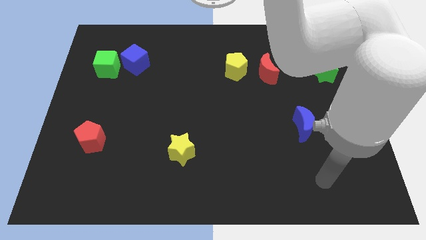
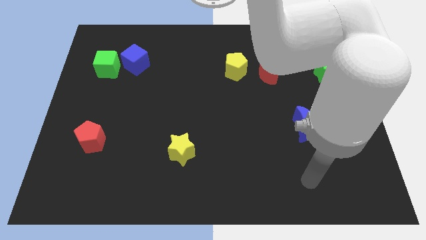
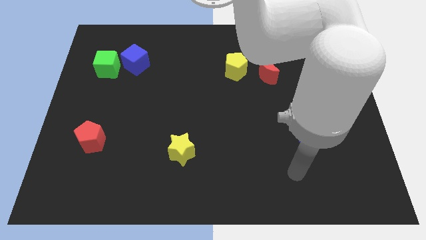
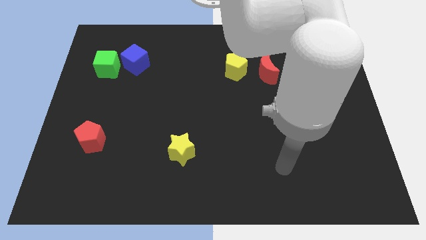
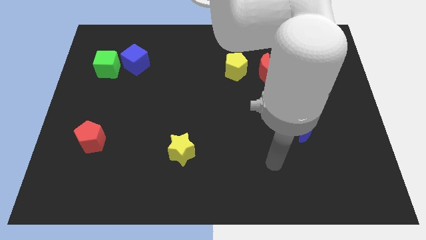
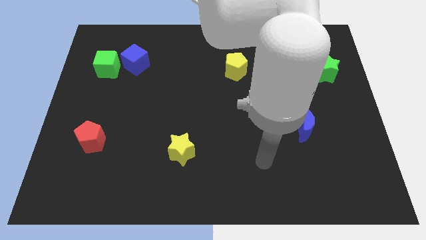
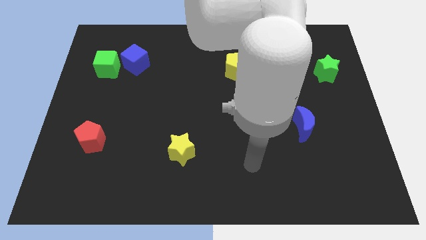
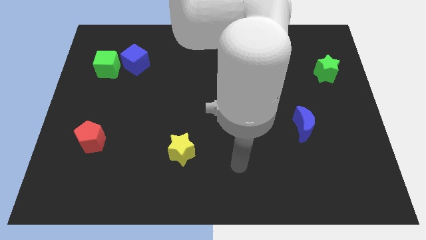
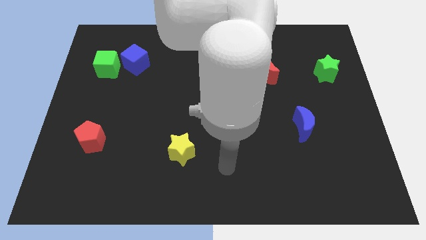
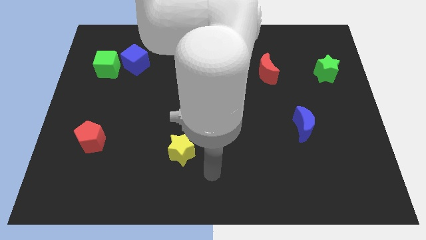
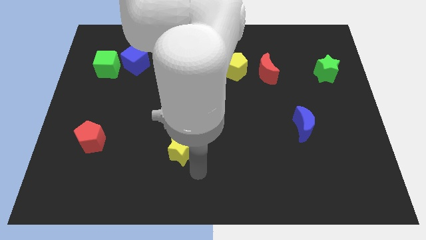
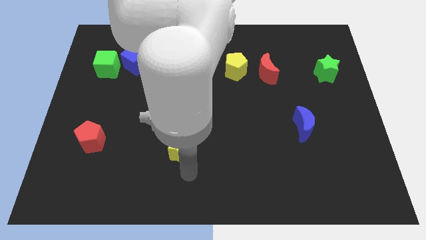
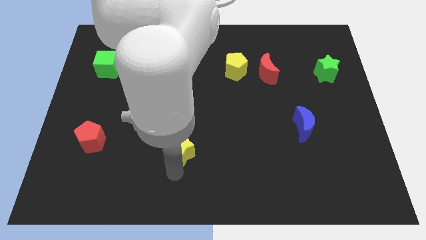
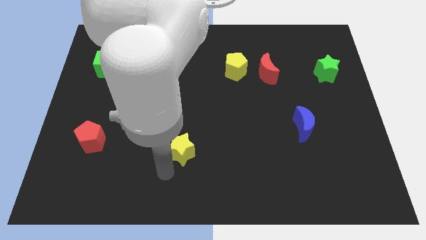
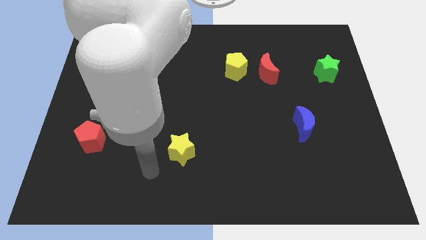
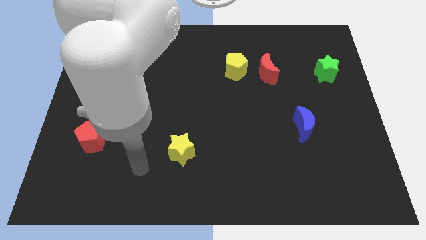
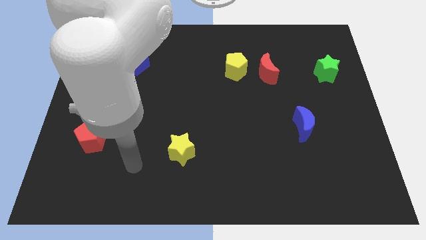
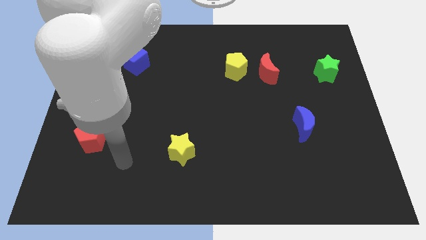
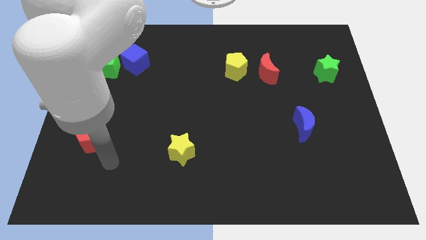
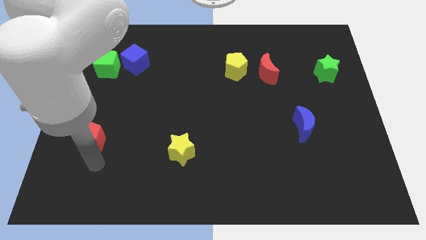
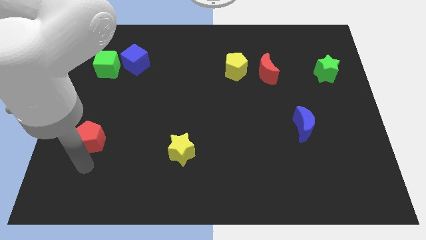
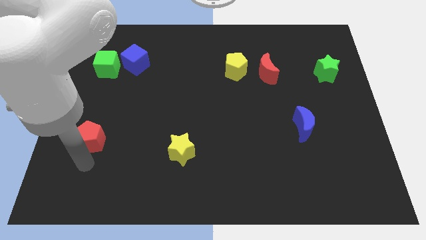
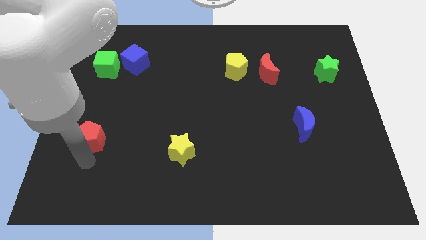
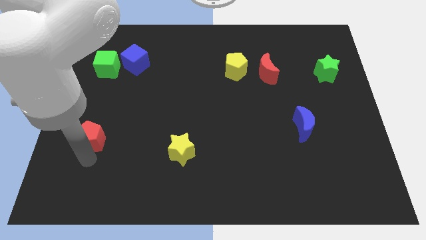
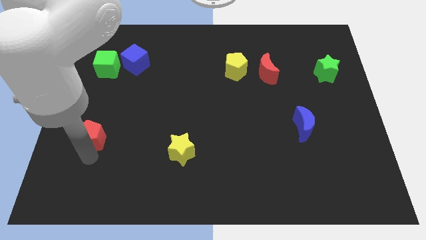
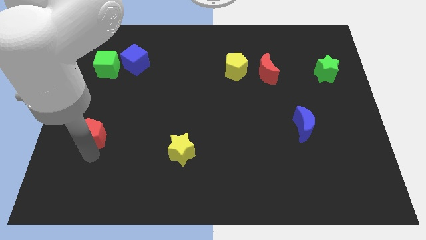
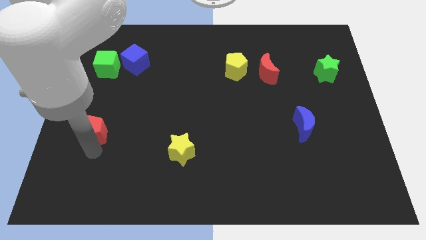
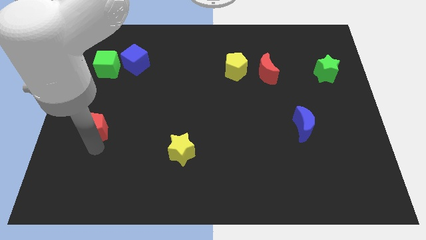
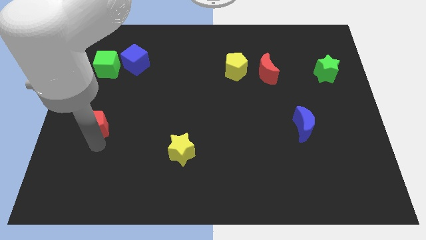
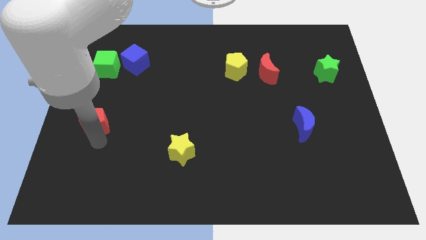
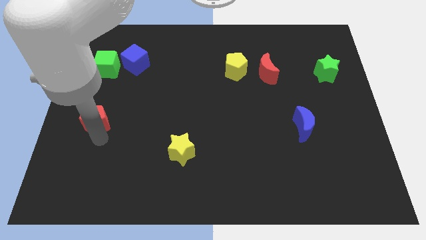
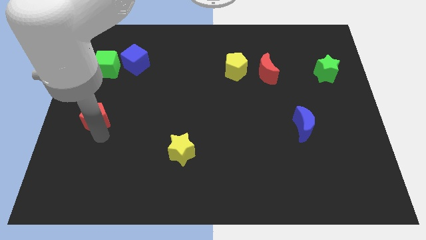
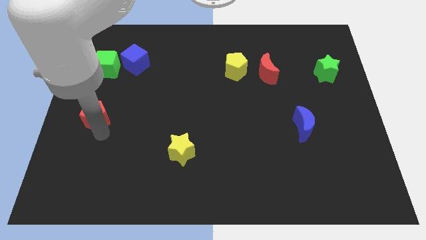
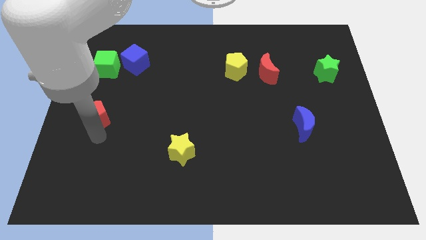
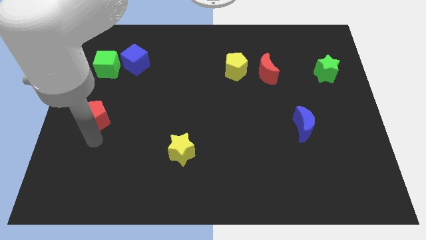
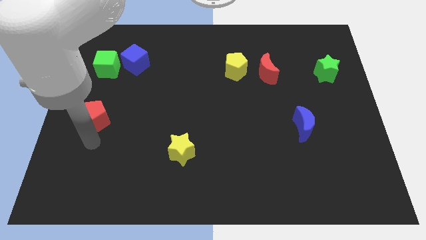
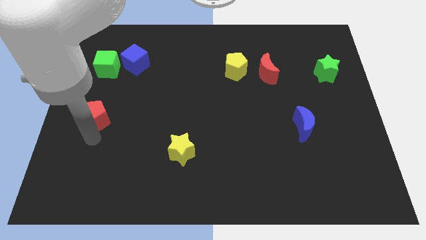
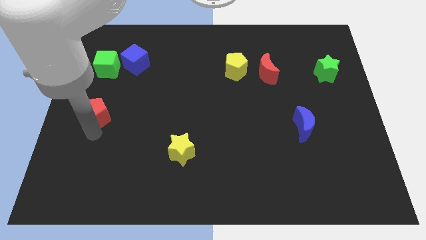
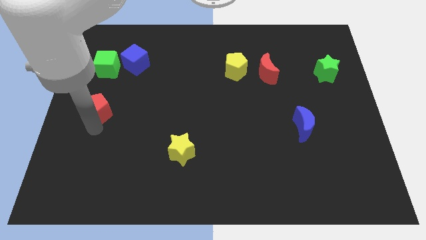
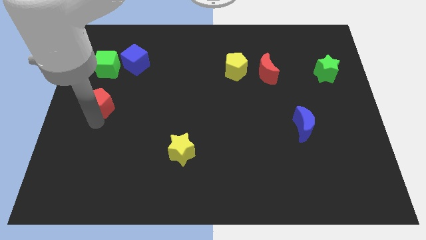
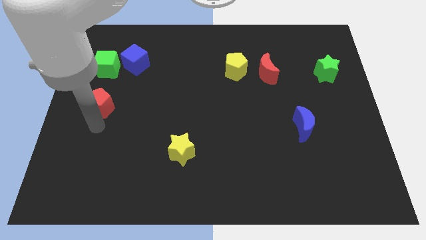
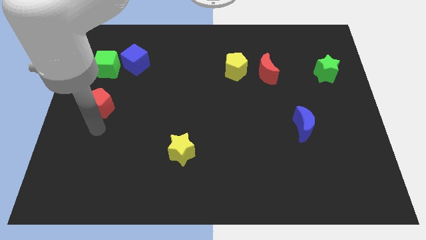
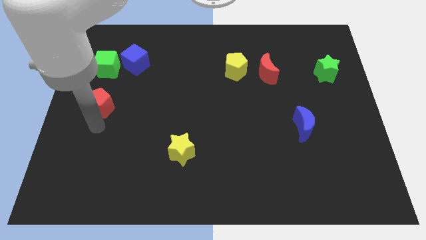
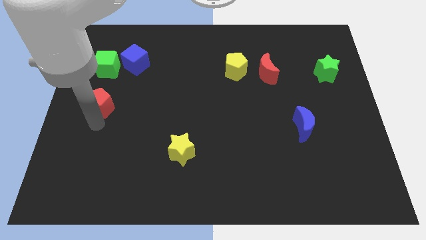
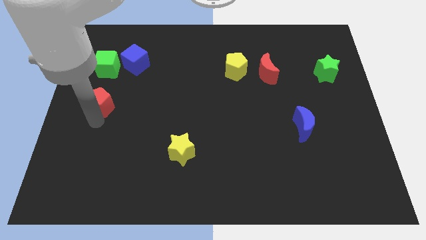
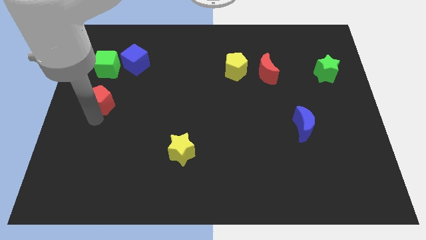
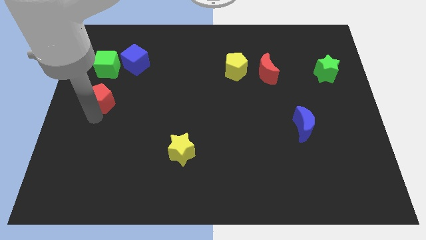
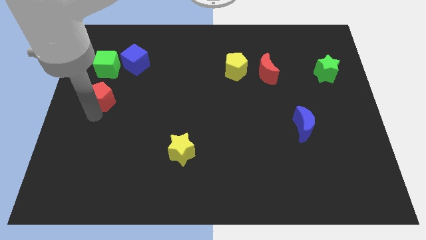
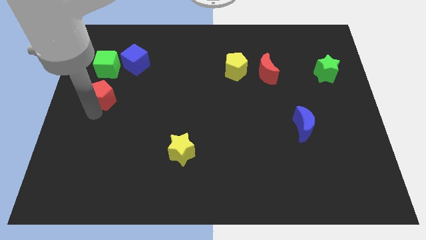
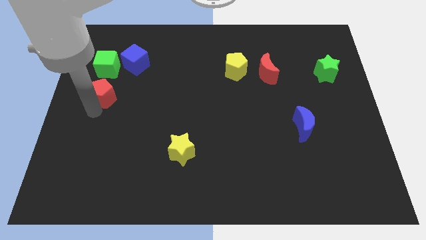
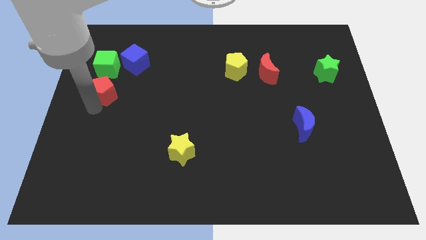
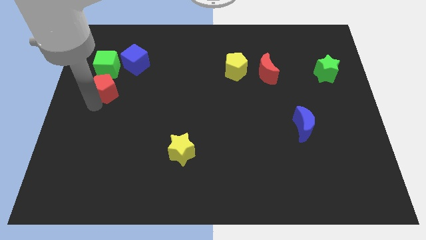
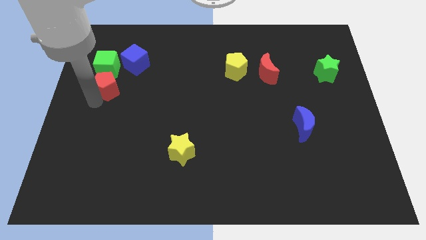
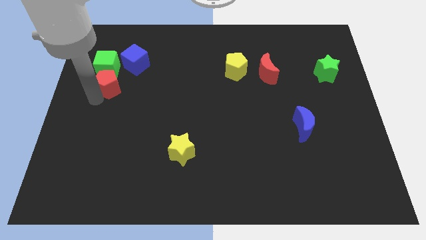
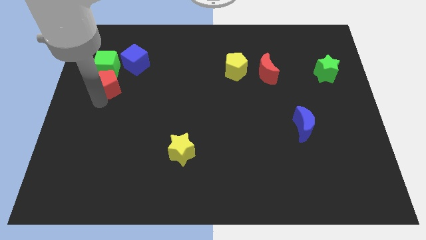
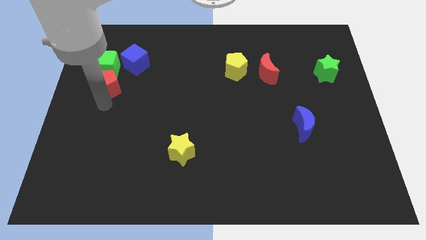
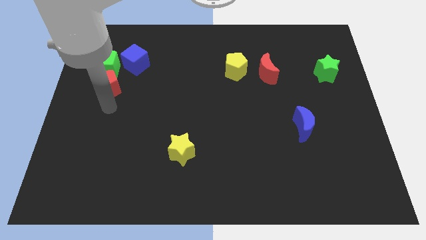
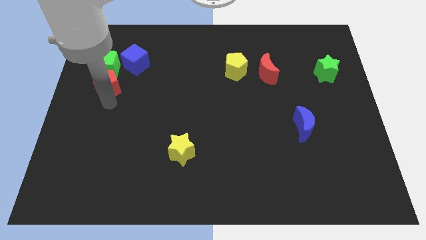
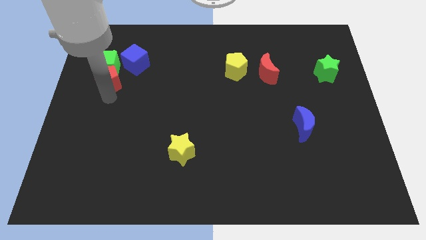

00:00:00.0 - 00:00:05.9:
push the red pentagon towards the green cube
